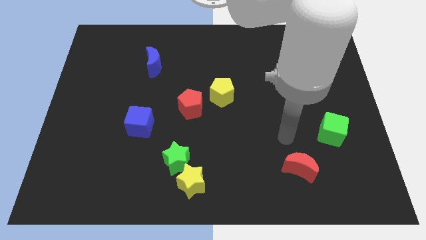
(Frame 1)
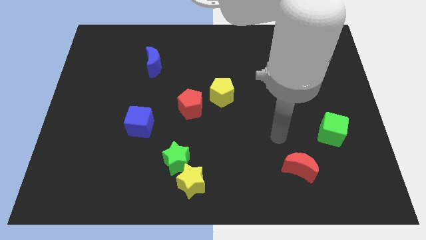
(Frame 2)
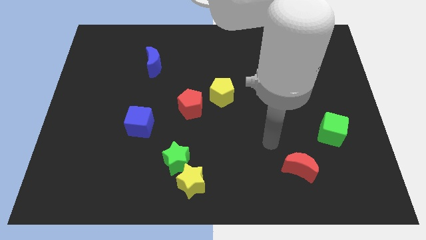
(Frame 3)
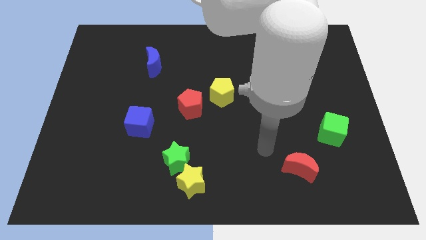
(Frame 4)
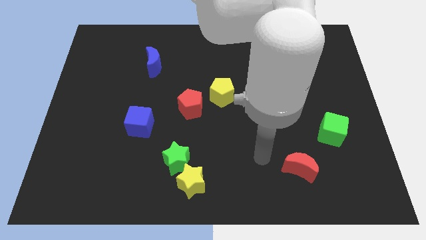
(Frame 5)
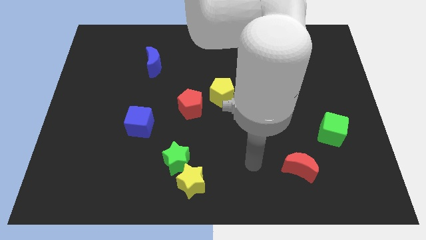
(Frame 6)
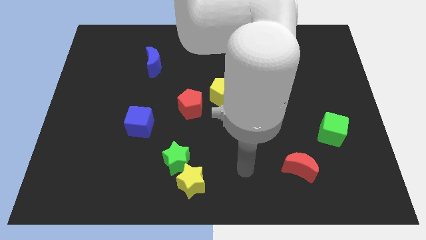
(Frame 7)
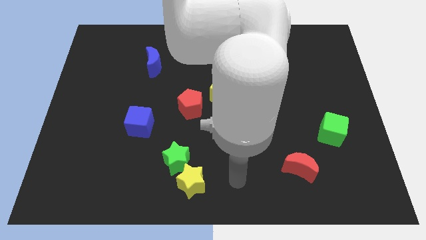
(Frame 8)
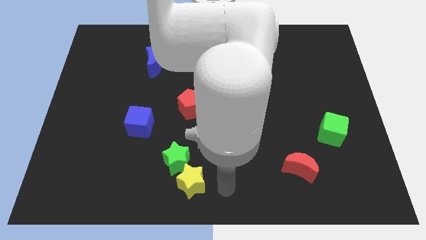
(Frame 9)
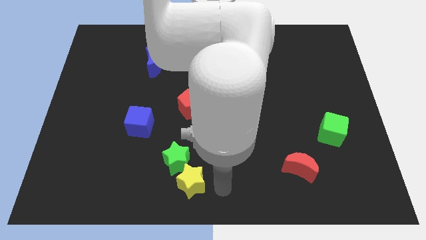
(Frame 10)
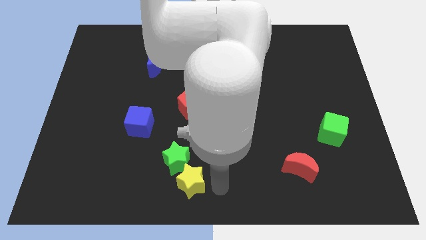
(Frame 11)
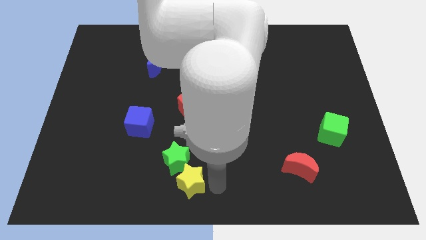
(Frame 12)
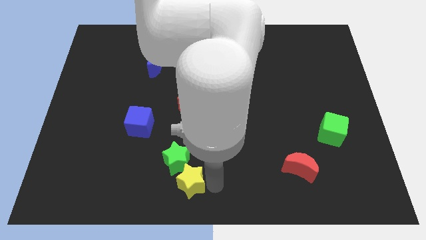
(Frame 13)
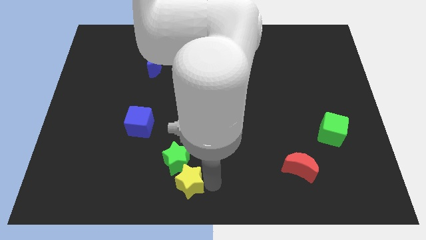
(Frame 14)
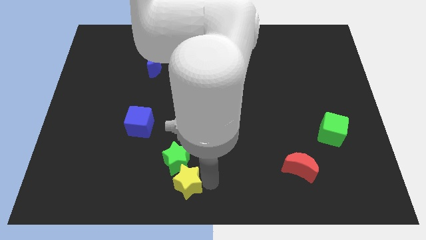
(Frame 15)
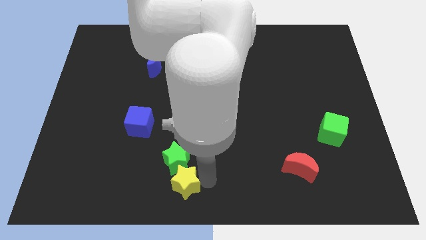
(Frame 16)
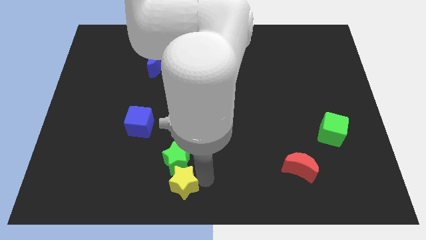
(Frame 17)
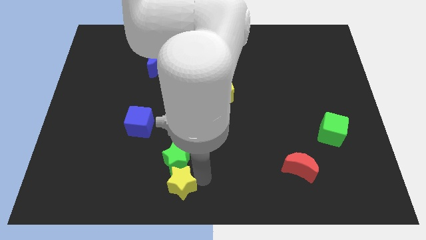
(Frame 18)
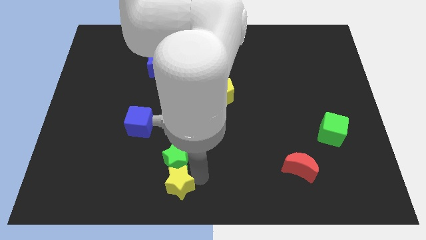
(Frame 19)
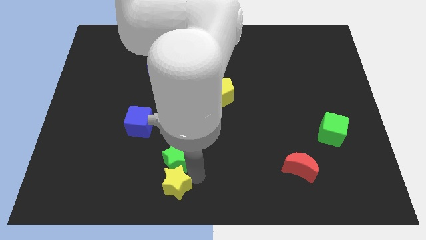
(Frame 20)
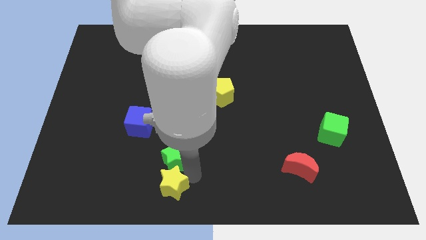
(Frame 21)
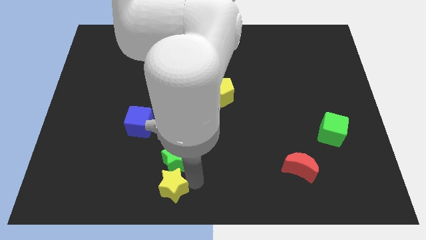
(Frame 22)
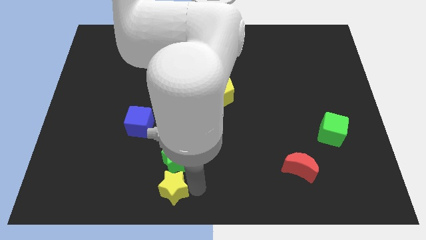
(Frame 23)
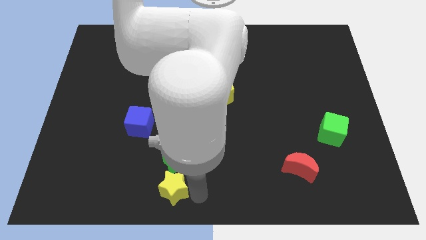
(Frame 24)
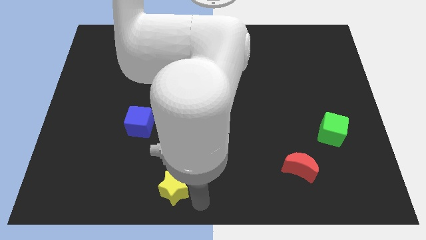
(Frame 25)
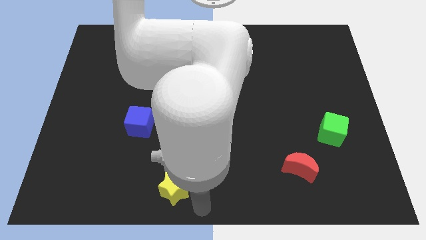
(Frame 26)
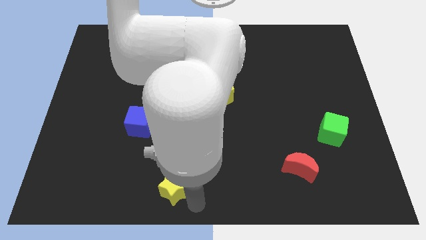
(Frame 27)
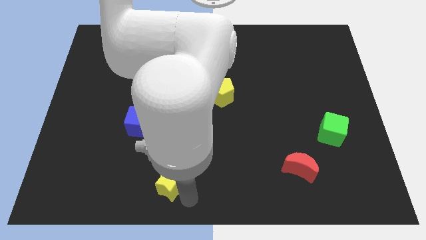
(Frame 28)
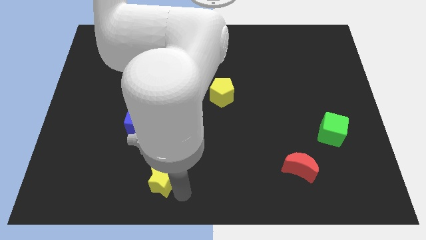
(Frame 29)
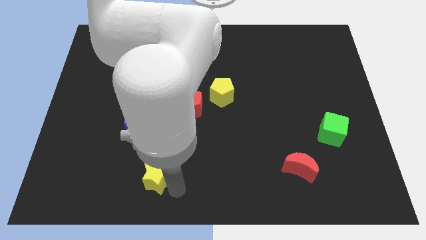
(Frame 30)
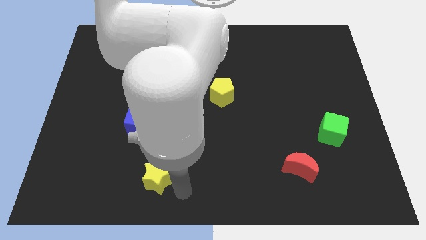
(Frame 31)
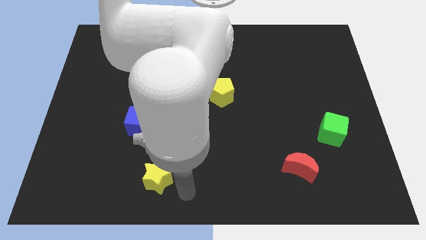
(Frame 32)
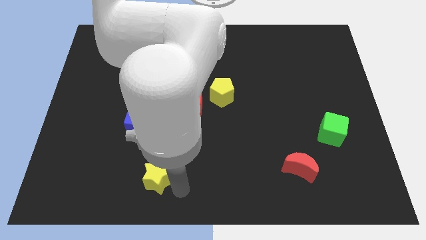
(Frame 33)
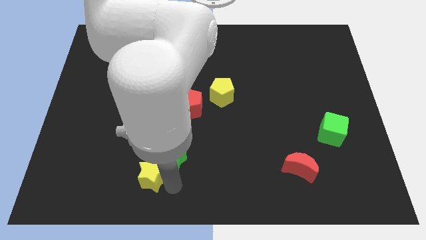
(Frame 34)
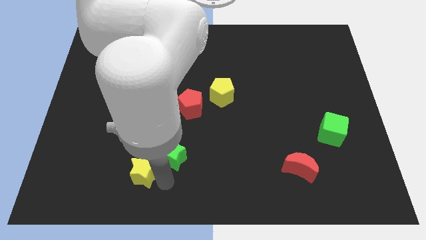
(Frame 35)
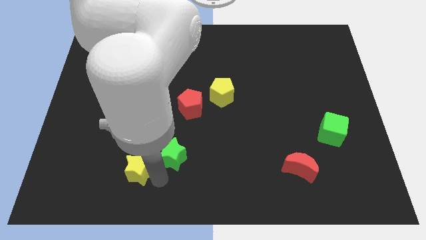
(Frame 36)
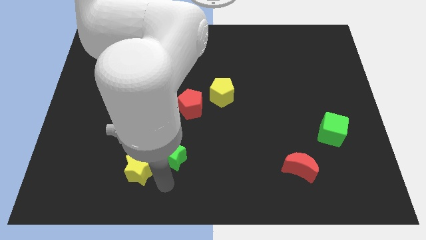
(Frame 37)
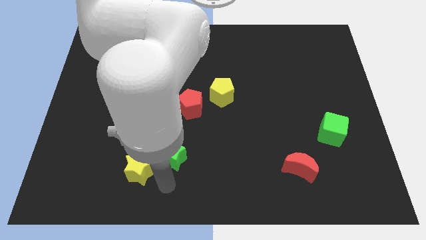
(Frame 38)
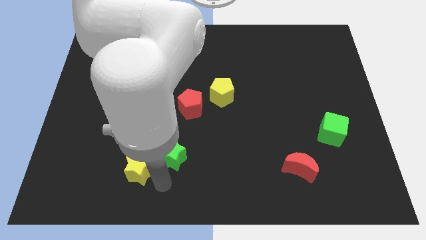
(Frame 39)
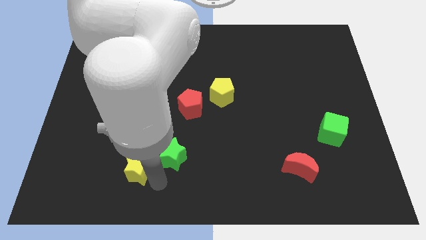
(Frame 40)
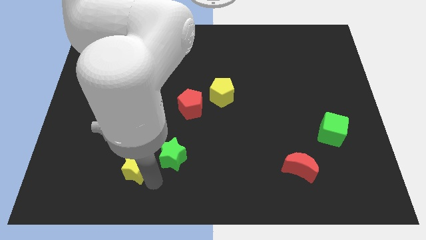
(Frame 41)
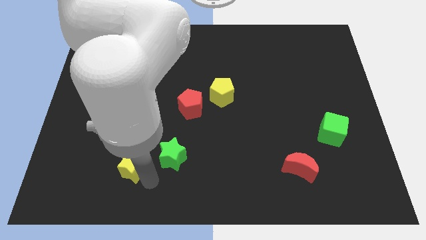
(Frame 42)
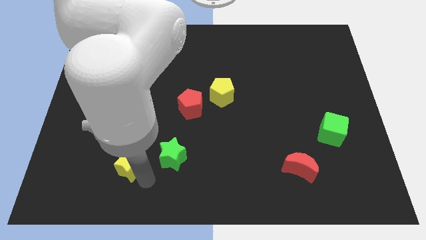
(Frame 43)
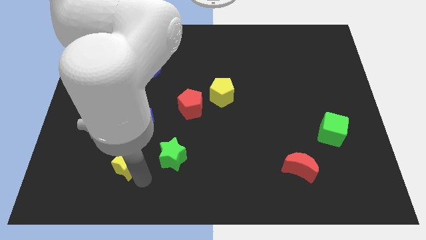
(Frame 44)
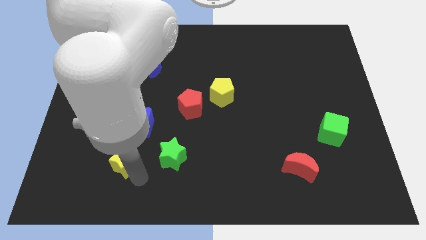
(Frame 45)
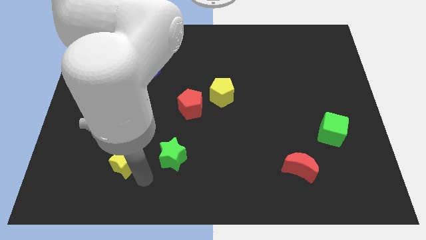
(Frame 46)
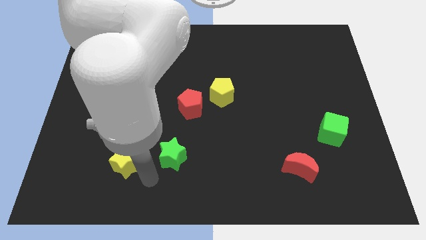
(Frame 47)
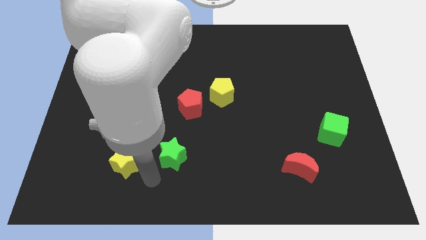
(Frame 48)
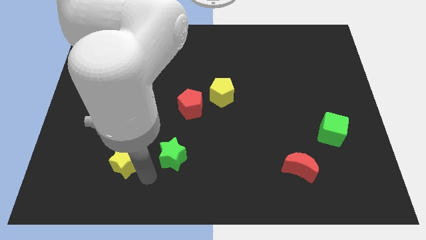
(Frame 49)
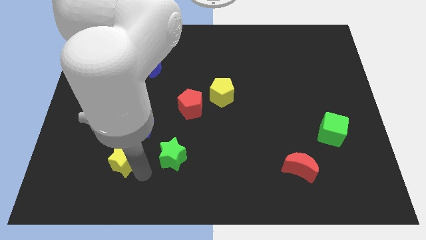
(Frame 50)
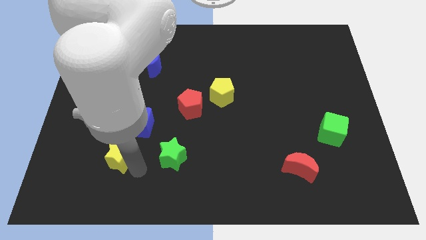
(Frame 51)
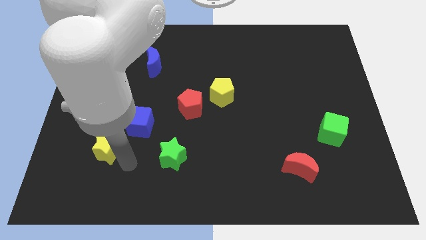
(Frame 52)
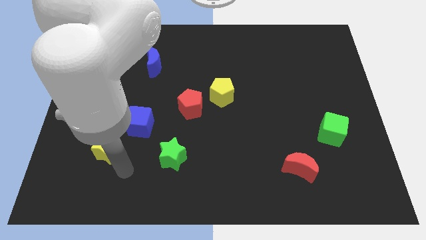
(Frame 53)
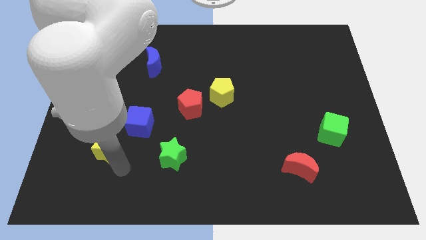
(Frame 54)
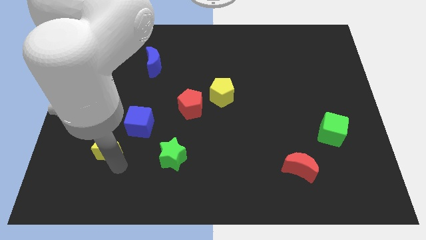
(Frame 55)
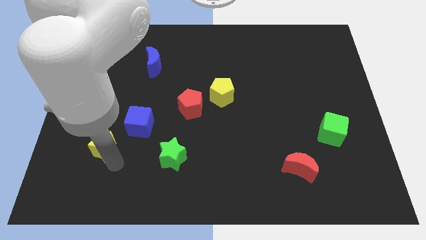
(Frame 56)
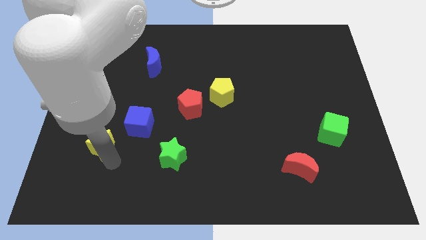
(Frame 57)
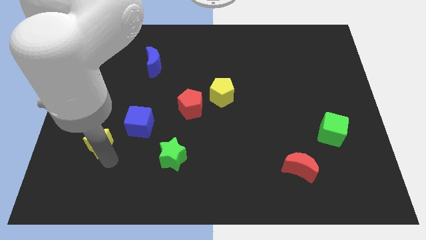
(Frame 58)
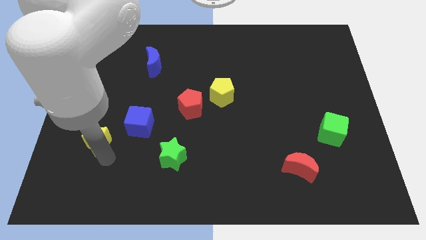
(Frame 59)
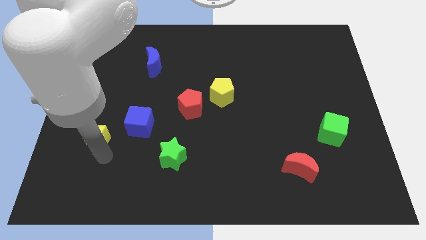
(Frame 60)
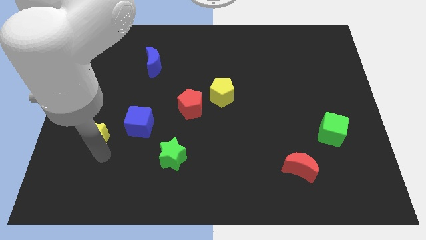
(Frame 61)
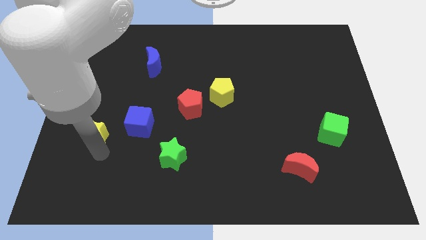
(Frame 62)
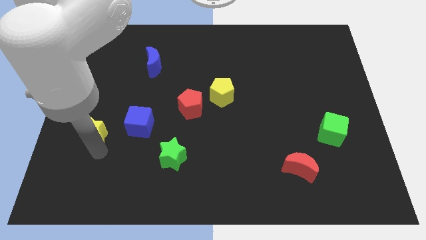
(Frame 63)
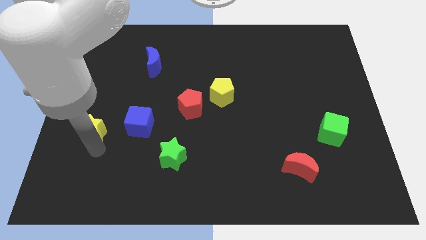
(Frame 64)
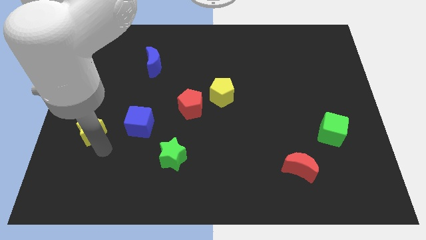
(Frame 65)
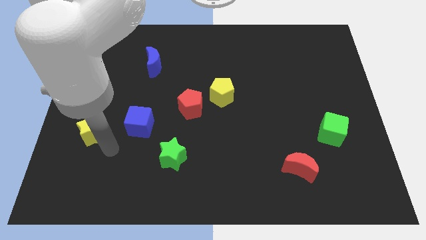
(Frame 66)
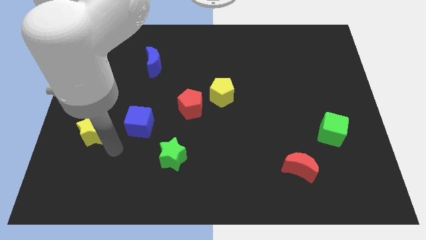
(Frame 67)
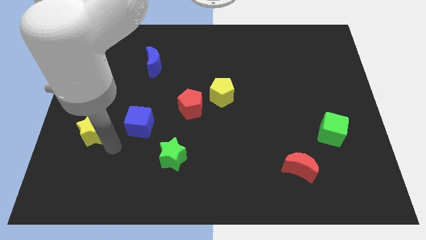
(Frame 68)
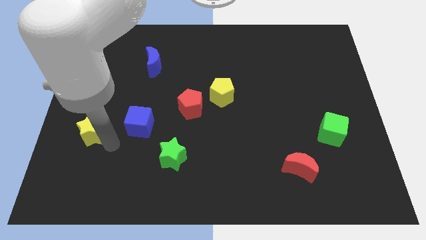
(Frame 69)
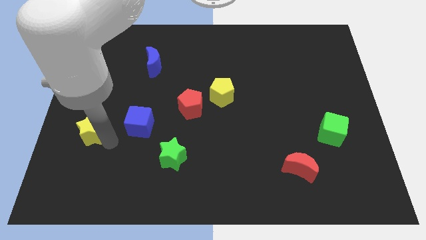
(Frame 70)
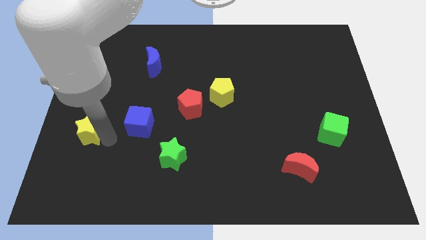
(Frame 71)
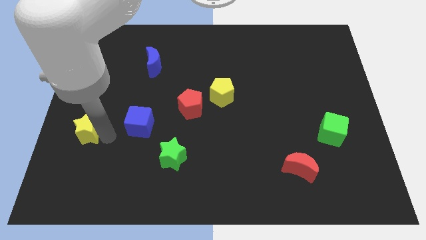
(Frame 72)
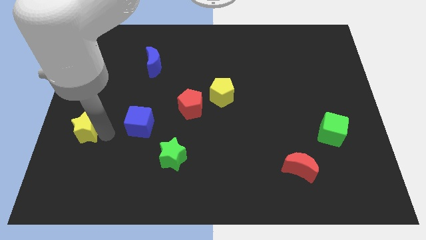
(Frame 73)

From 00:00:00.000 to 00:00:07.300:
push the yellow star to the left side

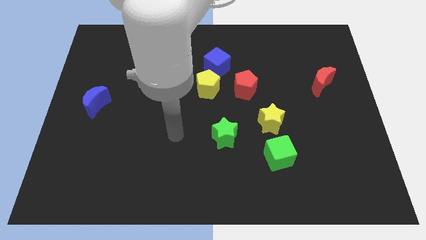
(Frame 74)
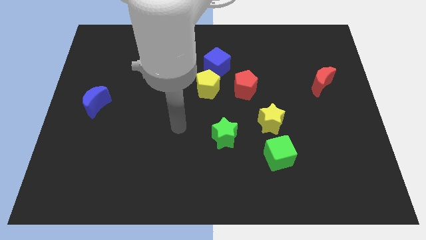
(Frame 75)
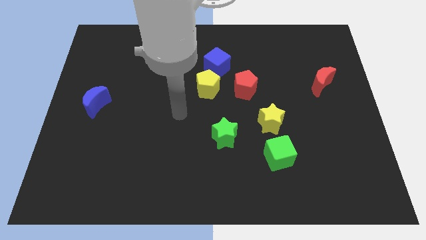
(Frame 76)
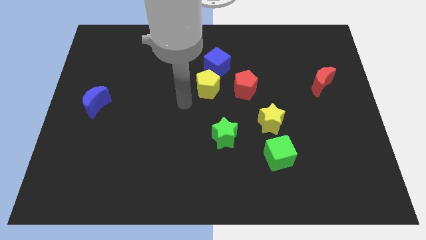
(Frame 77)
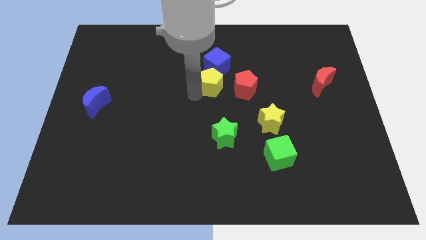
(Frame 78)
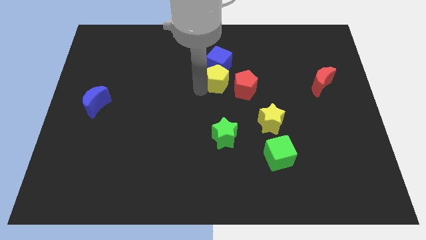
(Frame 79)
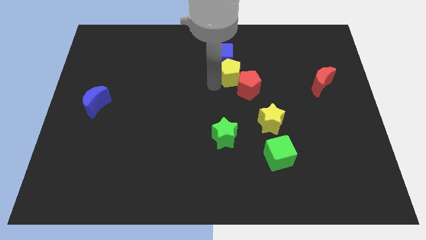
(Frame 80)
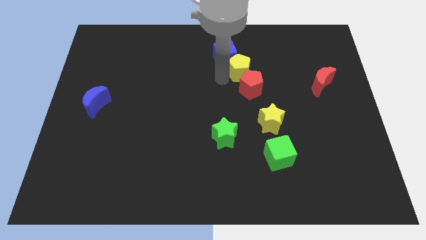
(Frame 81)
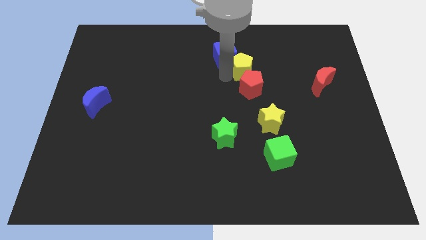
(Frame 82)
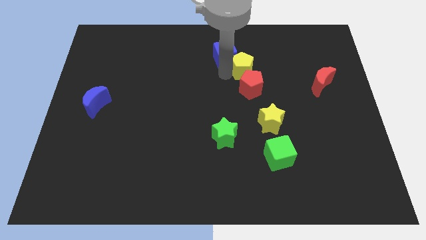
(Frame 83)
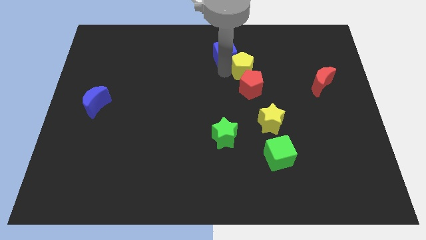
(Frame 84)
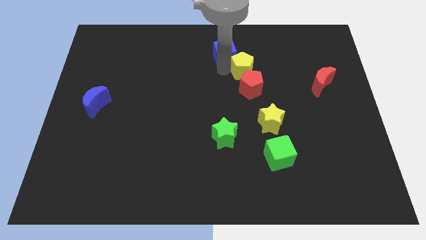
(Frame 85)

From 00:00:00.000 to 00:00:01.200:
push the blue cube to the top side
